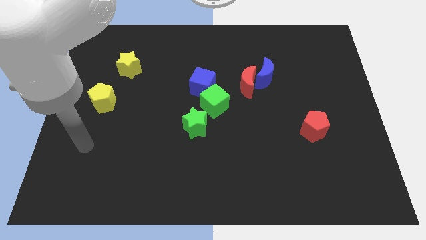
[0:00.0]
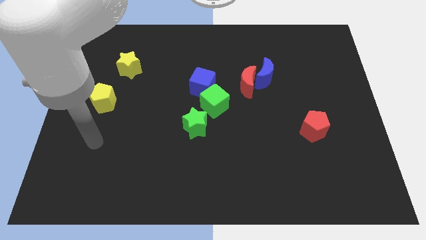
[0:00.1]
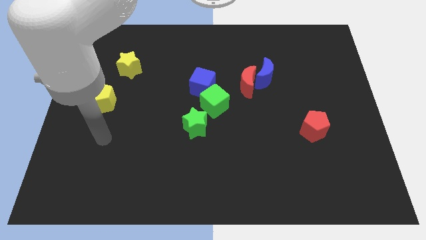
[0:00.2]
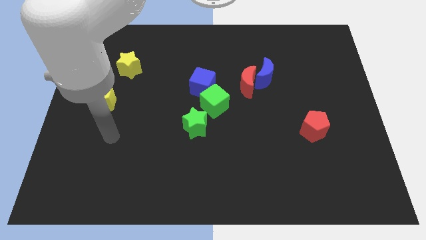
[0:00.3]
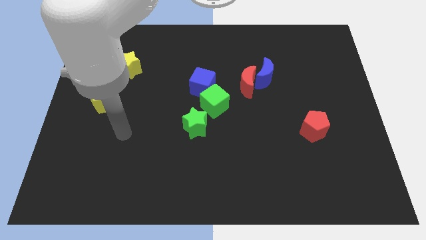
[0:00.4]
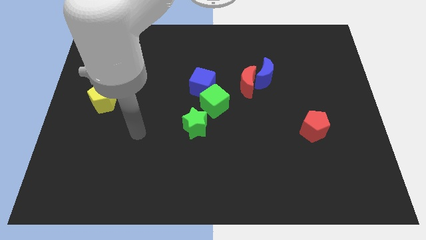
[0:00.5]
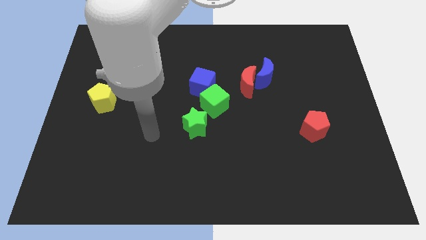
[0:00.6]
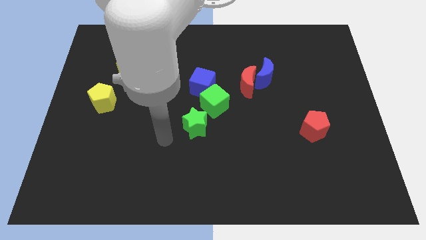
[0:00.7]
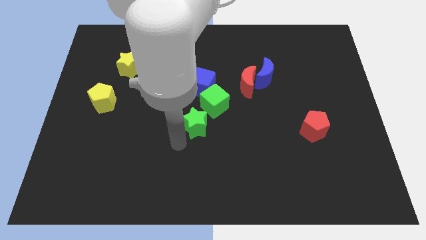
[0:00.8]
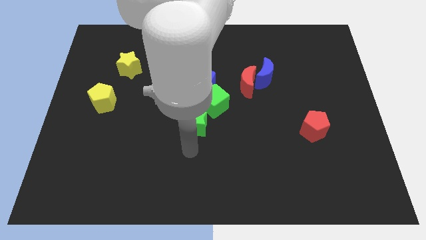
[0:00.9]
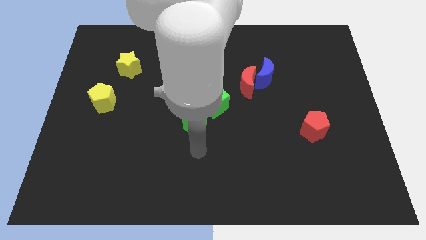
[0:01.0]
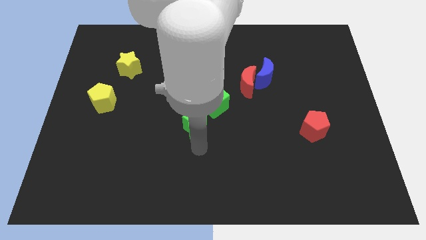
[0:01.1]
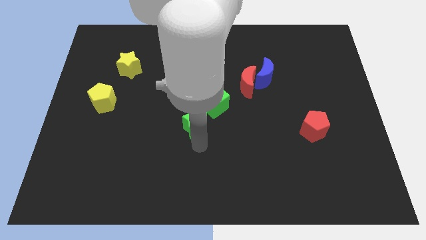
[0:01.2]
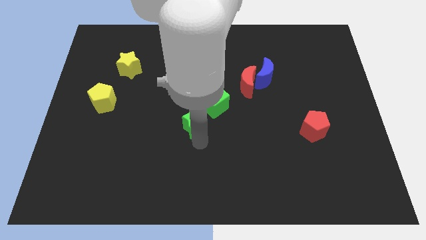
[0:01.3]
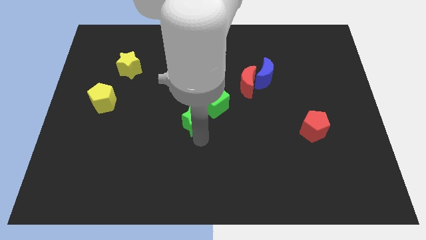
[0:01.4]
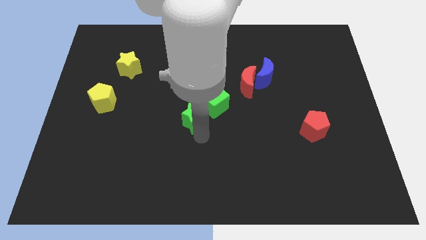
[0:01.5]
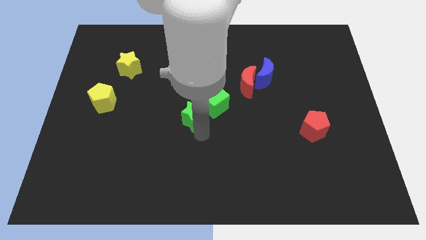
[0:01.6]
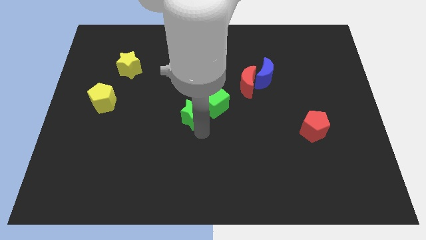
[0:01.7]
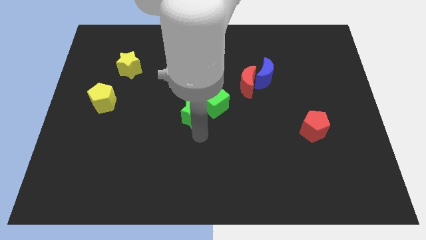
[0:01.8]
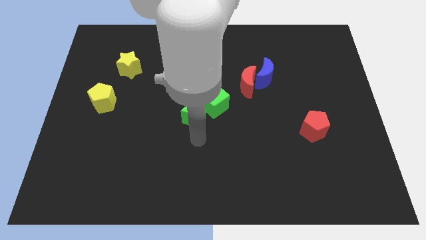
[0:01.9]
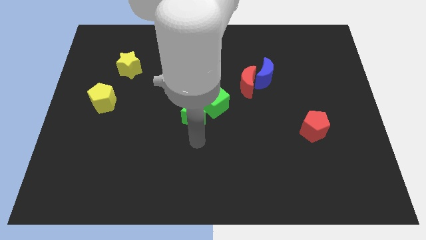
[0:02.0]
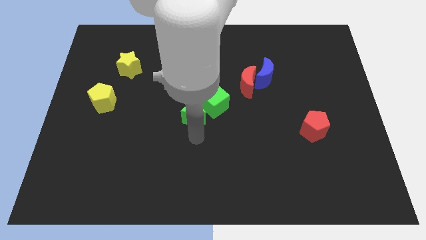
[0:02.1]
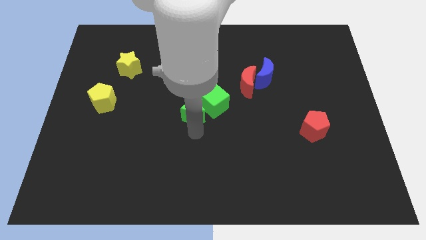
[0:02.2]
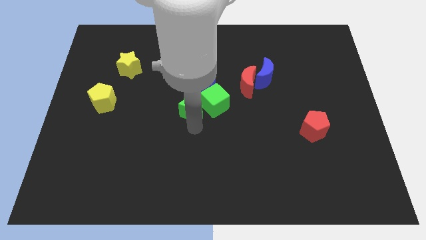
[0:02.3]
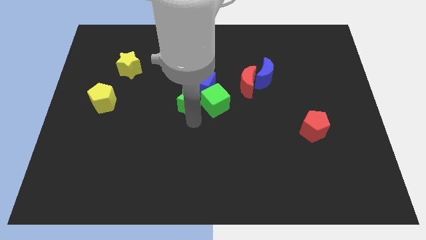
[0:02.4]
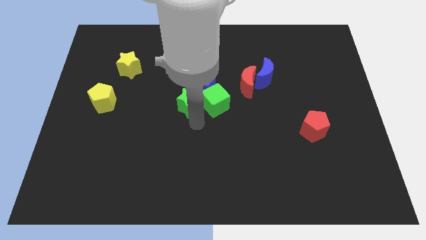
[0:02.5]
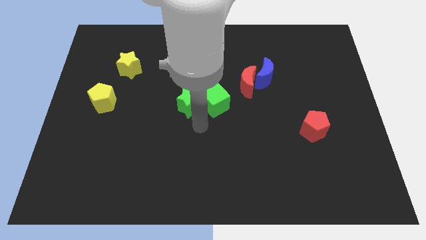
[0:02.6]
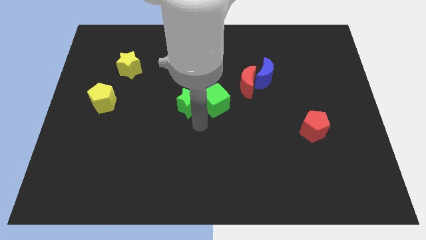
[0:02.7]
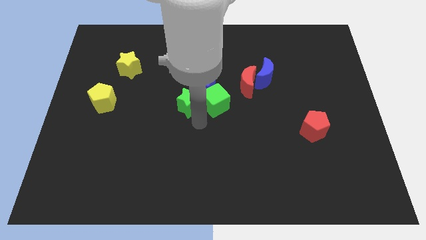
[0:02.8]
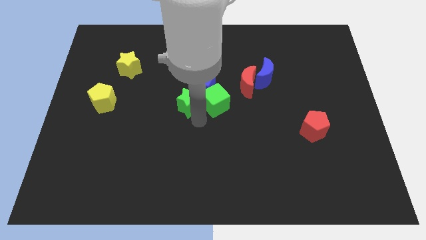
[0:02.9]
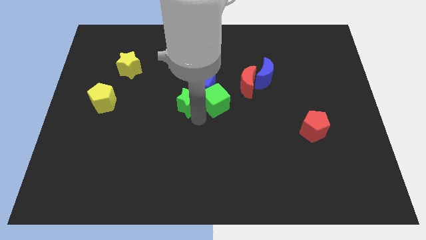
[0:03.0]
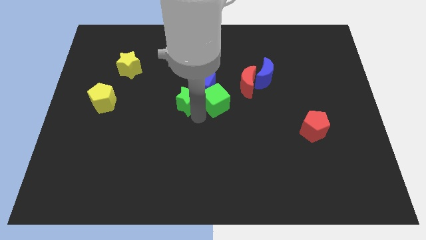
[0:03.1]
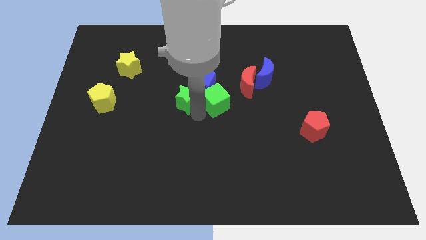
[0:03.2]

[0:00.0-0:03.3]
slightly move the green star up

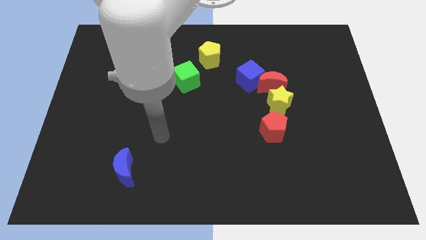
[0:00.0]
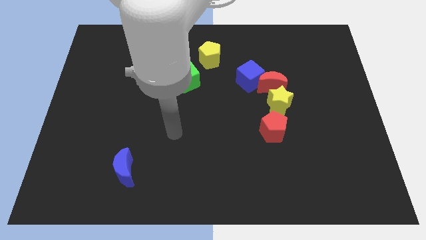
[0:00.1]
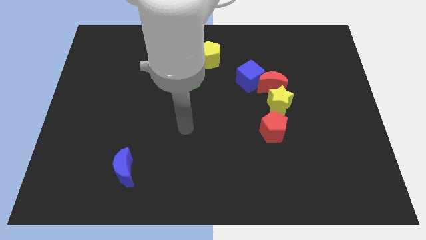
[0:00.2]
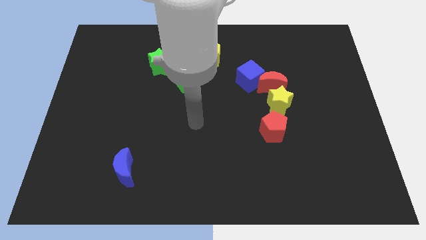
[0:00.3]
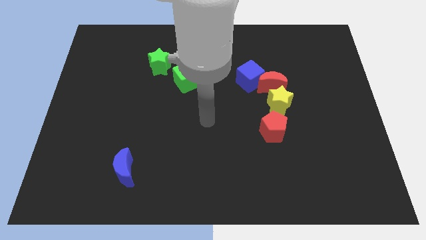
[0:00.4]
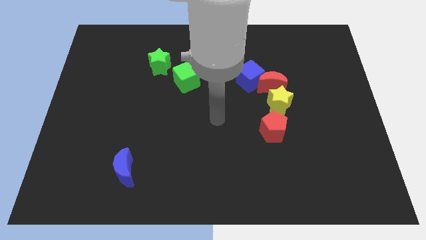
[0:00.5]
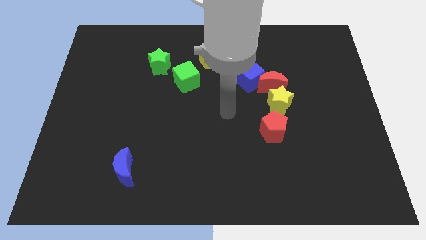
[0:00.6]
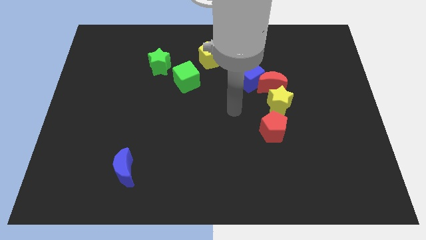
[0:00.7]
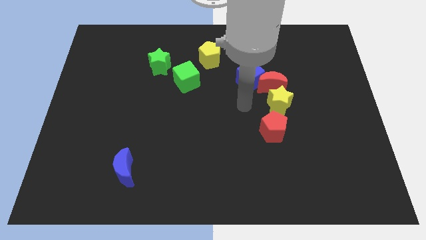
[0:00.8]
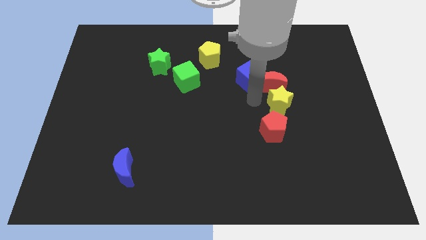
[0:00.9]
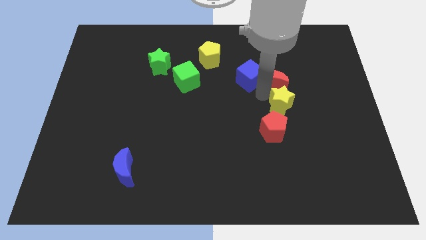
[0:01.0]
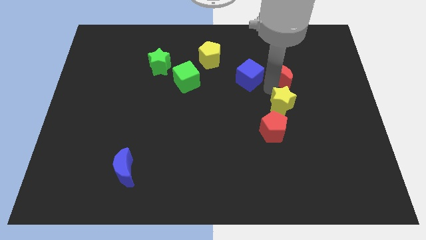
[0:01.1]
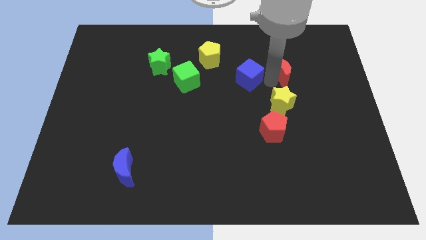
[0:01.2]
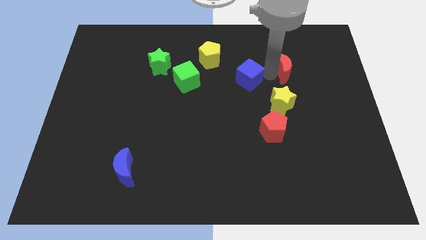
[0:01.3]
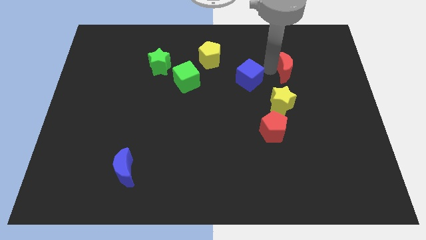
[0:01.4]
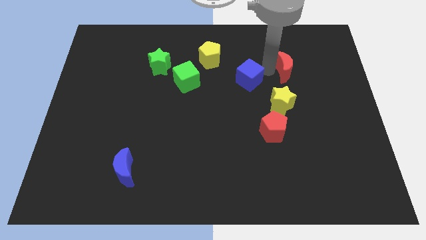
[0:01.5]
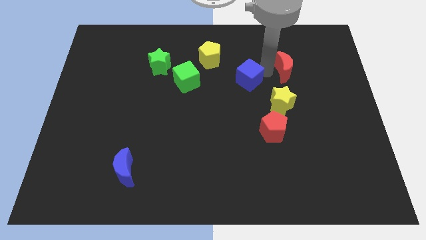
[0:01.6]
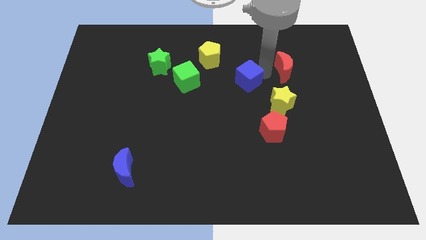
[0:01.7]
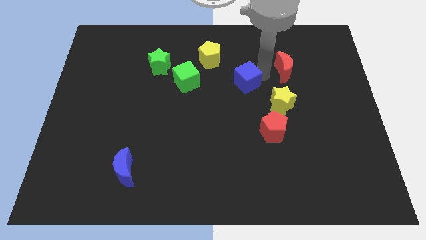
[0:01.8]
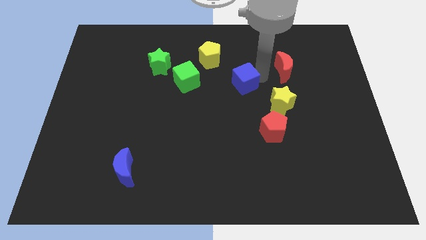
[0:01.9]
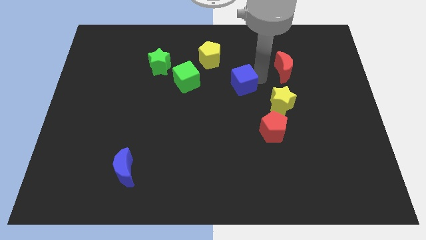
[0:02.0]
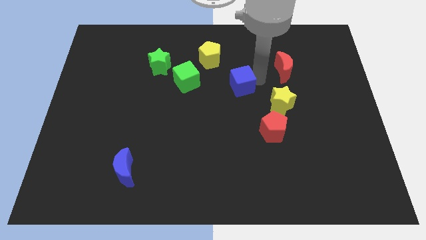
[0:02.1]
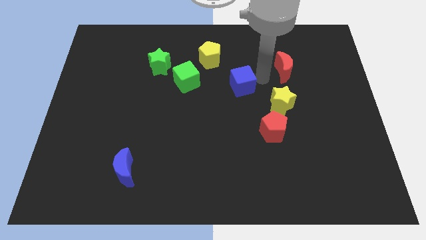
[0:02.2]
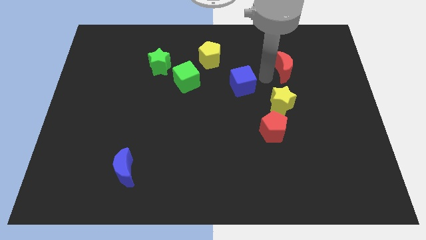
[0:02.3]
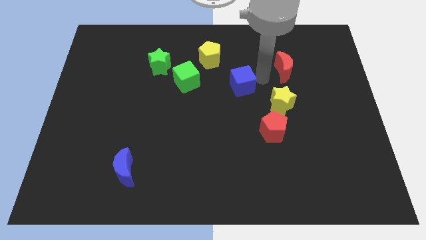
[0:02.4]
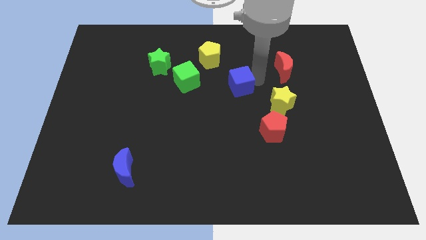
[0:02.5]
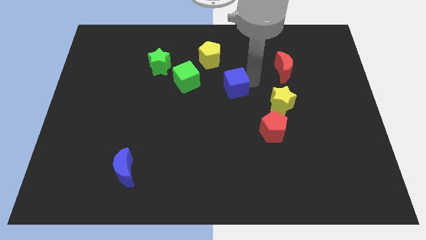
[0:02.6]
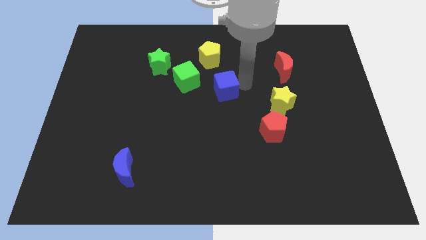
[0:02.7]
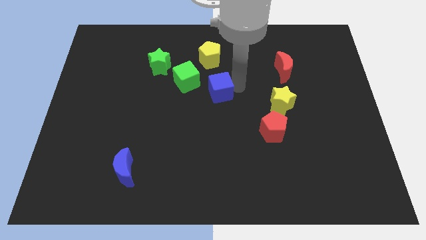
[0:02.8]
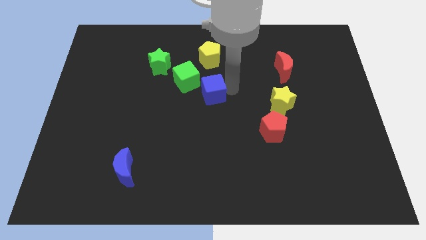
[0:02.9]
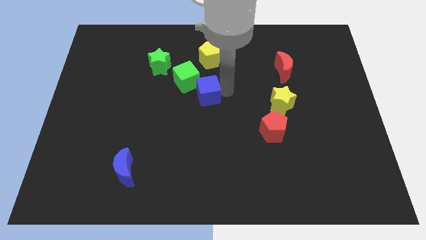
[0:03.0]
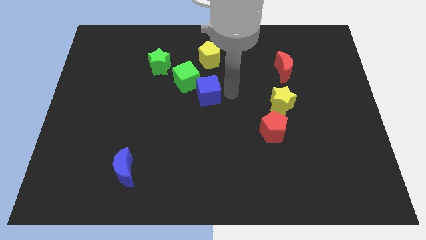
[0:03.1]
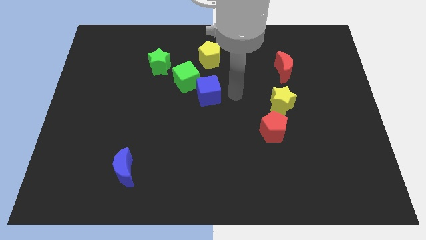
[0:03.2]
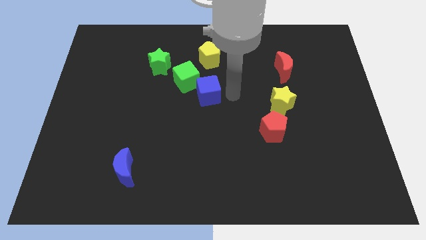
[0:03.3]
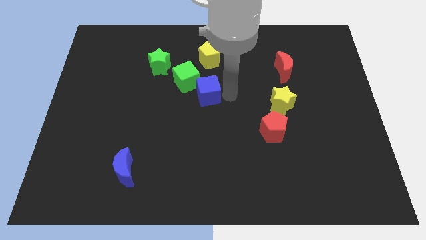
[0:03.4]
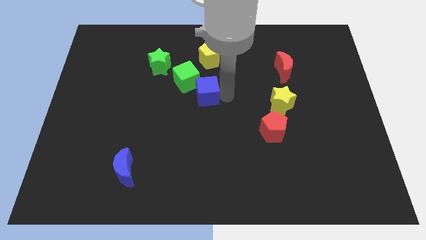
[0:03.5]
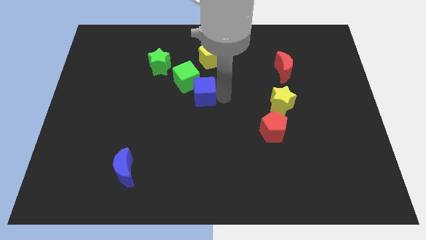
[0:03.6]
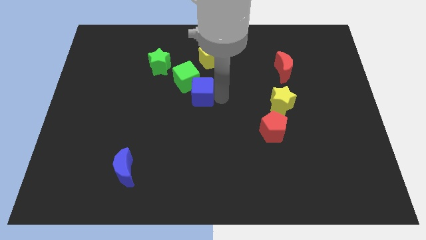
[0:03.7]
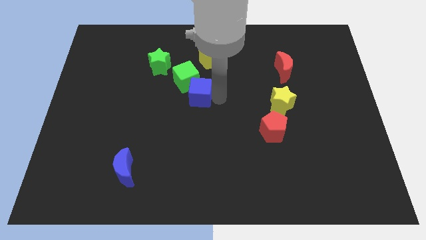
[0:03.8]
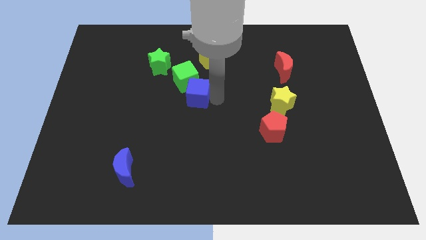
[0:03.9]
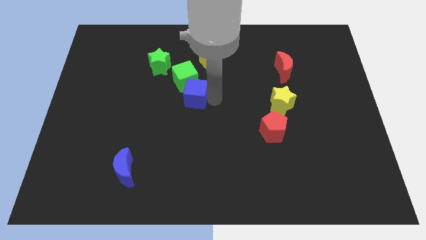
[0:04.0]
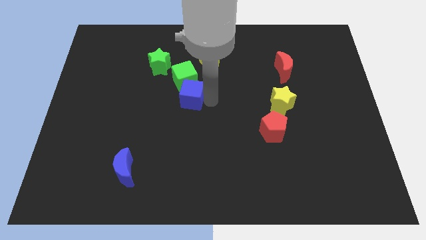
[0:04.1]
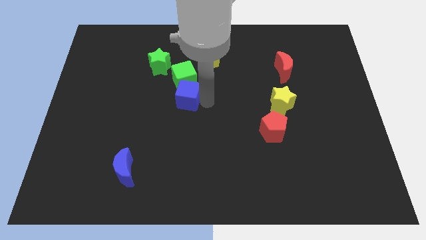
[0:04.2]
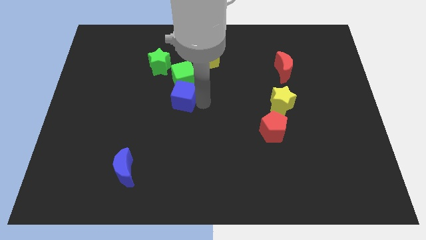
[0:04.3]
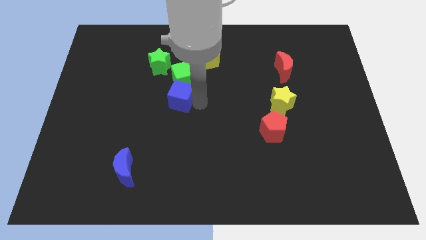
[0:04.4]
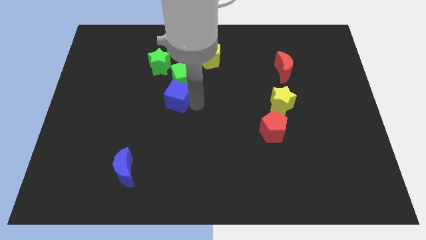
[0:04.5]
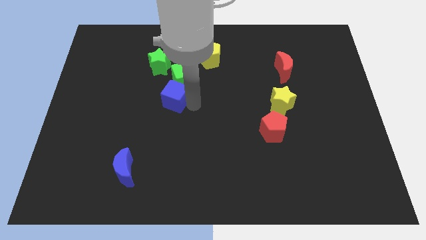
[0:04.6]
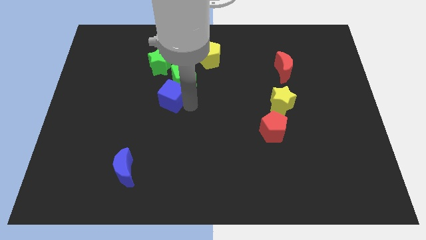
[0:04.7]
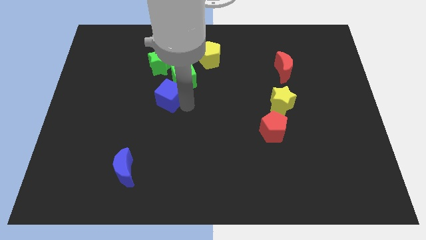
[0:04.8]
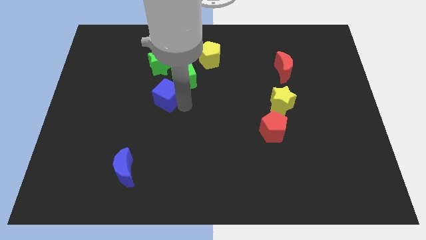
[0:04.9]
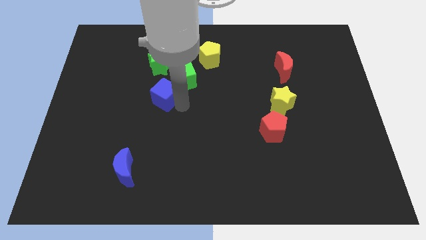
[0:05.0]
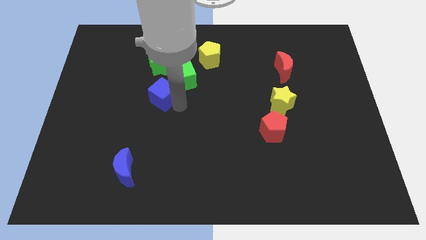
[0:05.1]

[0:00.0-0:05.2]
push the blue cube left
